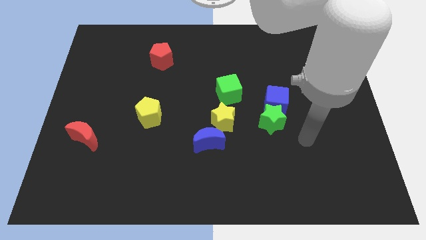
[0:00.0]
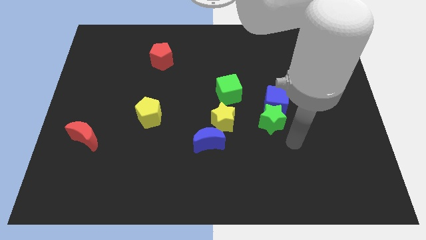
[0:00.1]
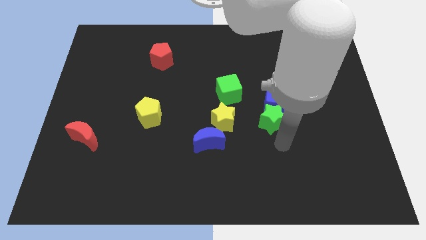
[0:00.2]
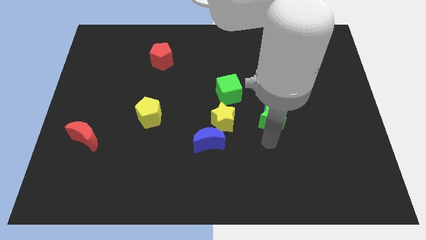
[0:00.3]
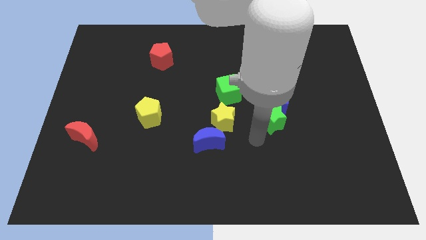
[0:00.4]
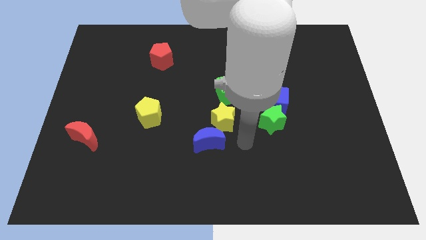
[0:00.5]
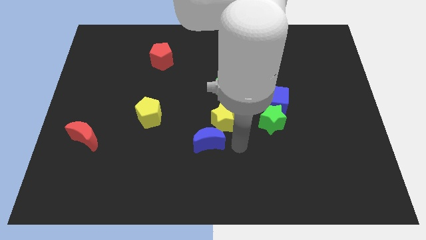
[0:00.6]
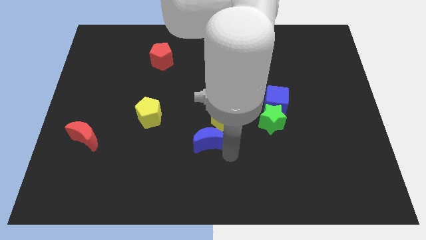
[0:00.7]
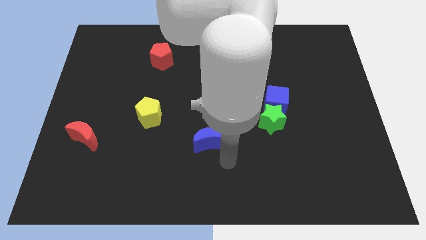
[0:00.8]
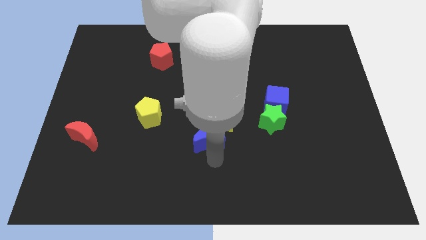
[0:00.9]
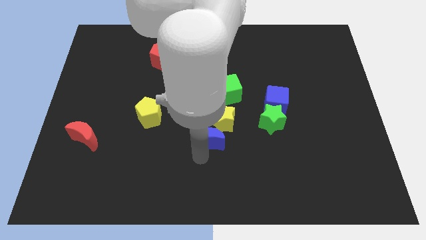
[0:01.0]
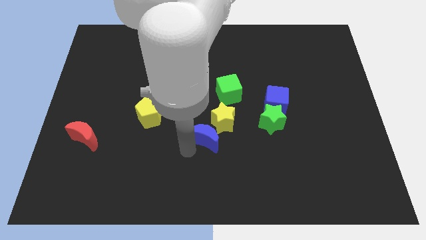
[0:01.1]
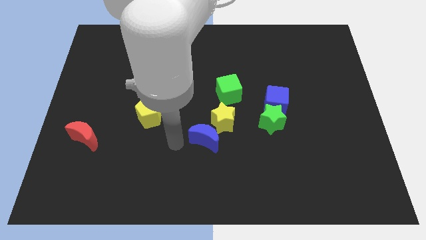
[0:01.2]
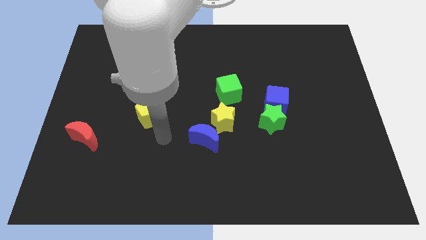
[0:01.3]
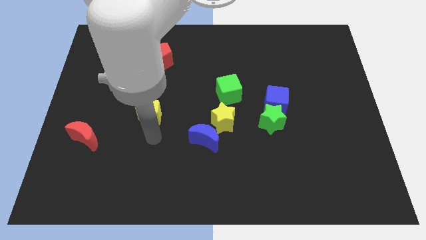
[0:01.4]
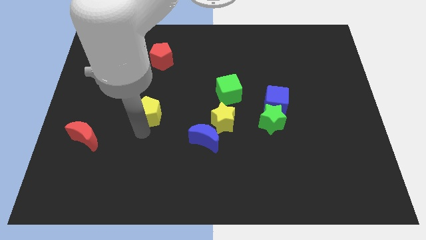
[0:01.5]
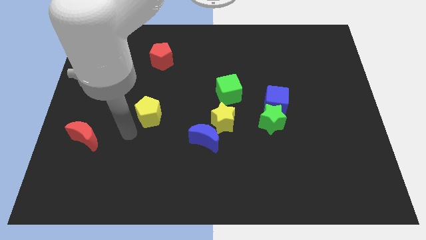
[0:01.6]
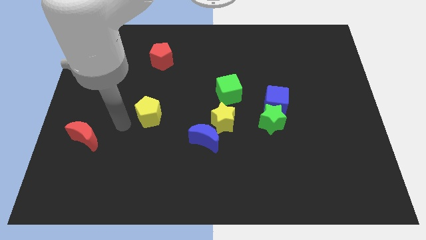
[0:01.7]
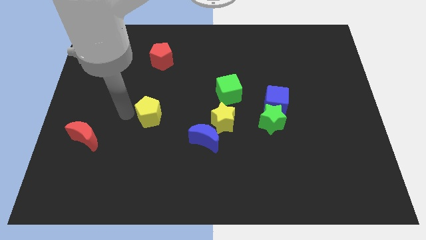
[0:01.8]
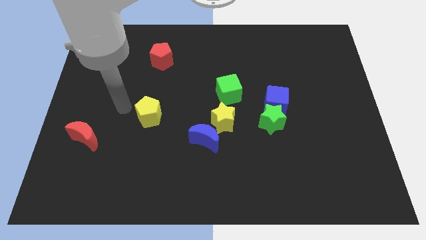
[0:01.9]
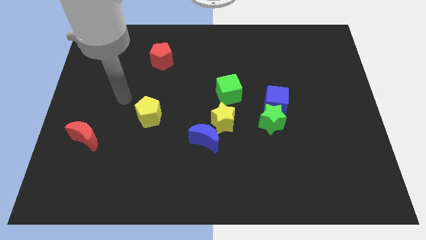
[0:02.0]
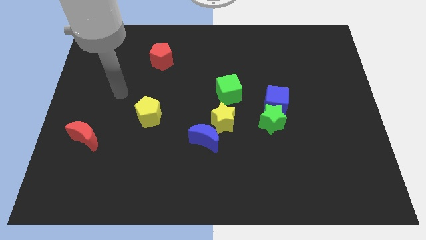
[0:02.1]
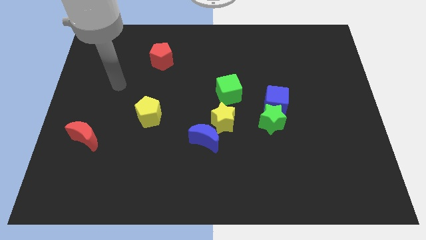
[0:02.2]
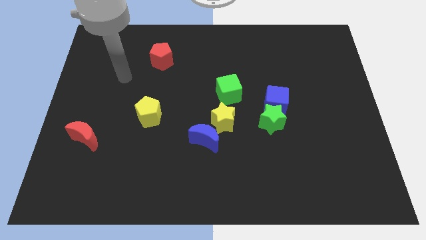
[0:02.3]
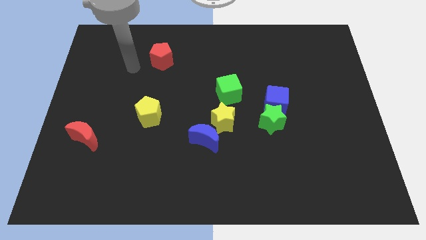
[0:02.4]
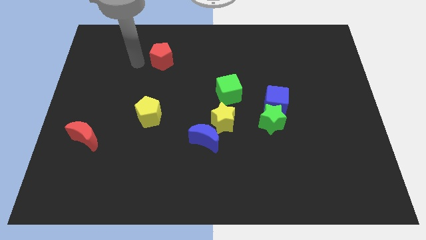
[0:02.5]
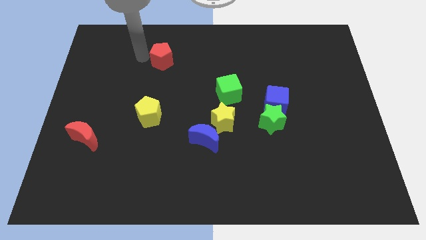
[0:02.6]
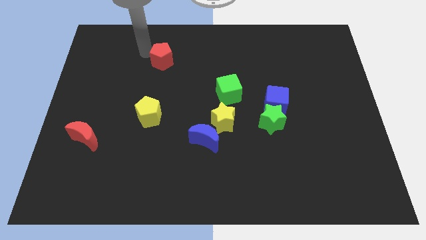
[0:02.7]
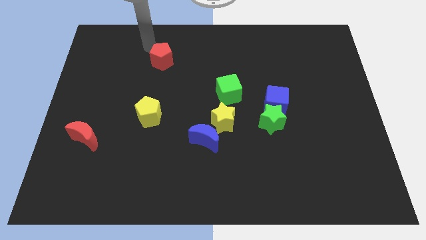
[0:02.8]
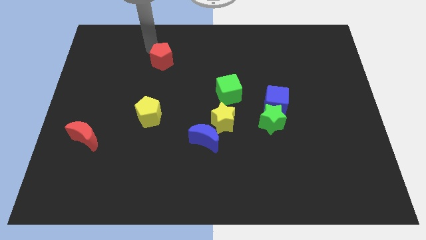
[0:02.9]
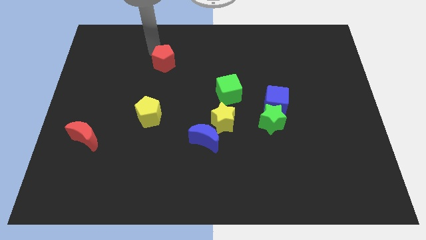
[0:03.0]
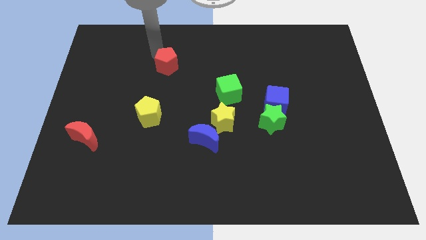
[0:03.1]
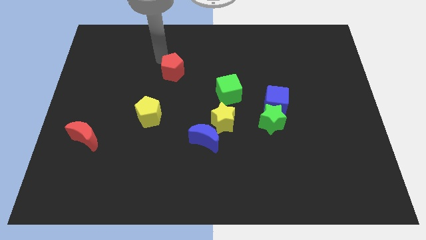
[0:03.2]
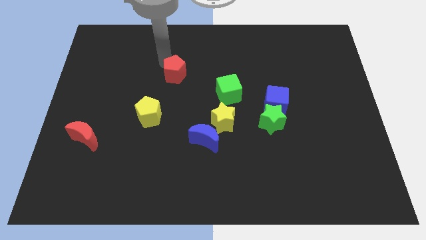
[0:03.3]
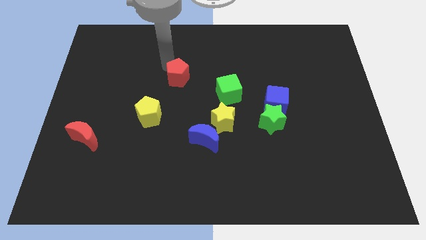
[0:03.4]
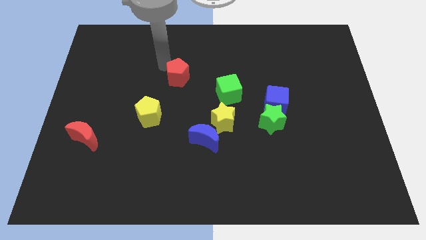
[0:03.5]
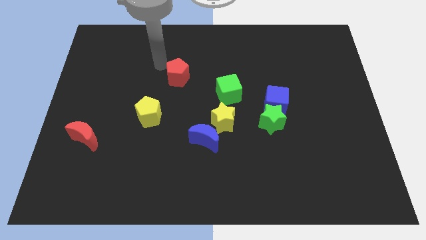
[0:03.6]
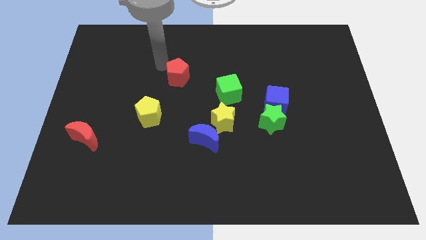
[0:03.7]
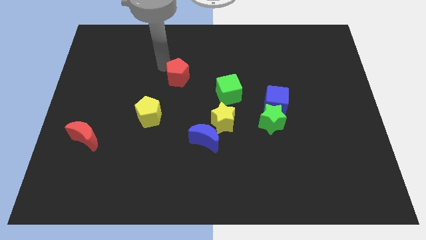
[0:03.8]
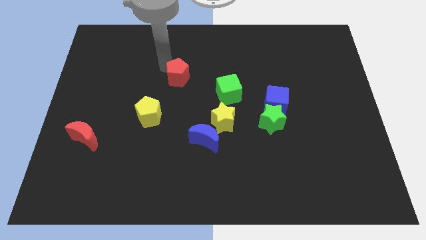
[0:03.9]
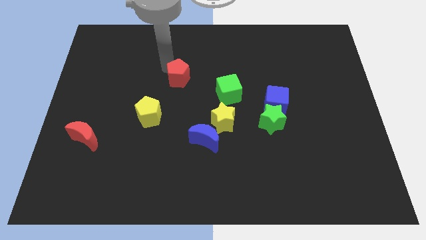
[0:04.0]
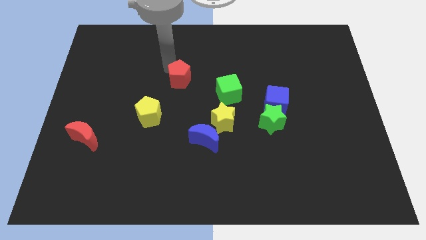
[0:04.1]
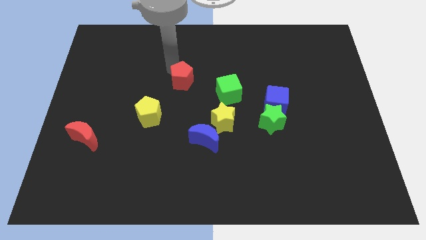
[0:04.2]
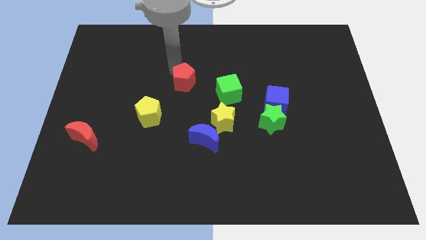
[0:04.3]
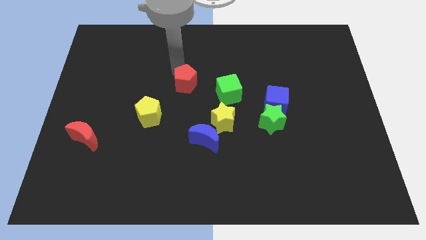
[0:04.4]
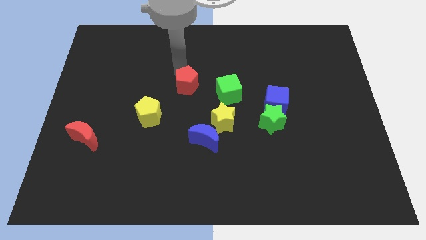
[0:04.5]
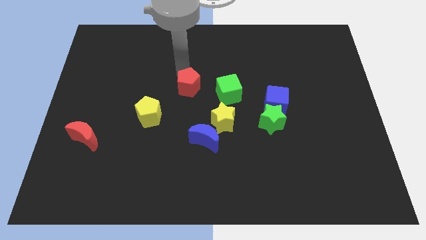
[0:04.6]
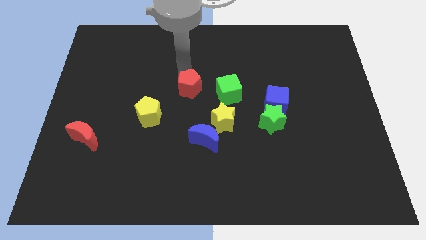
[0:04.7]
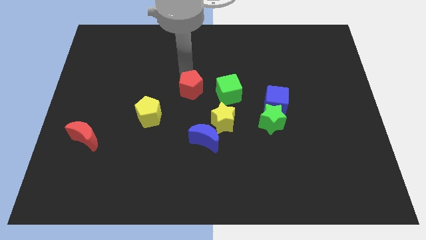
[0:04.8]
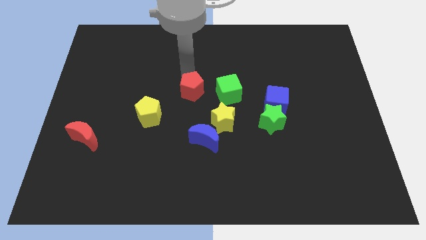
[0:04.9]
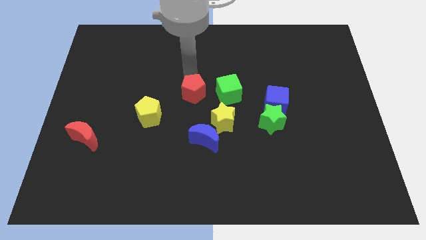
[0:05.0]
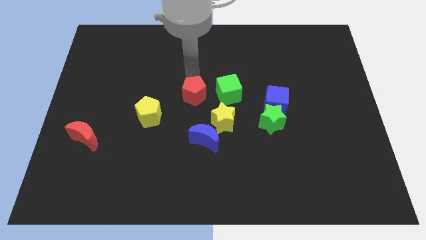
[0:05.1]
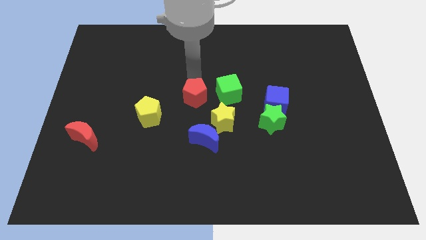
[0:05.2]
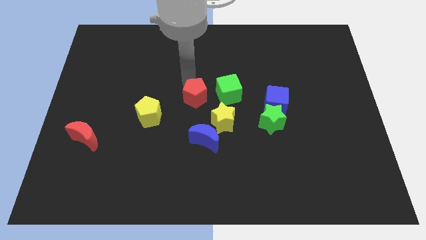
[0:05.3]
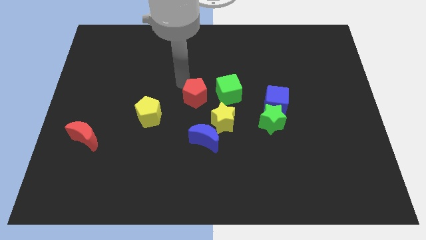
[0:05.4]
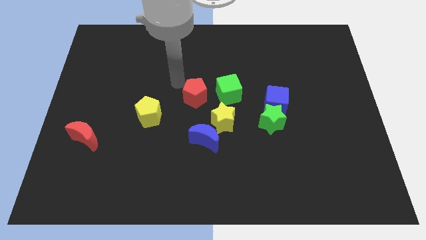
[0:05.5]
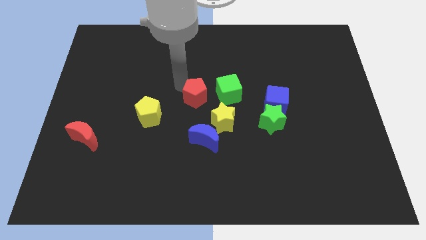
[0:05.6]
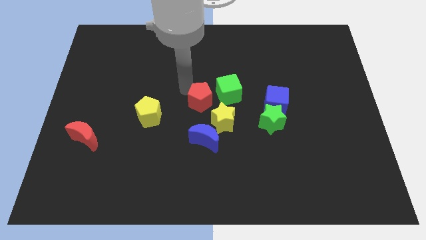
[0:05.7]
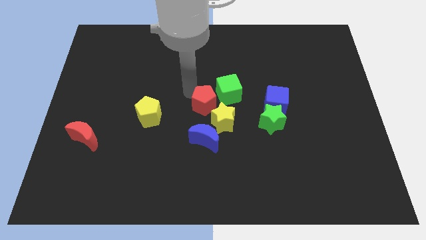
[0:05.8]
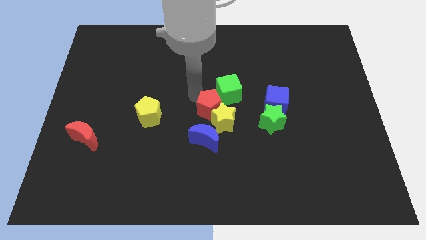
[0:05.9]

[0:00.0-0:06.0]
move the red pentagon to the yellow star

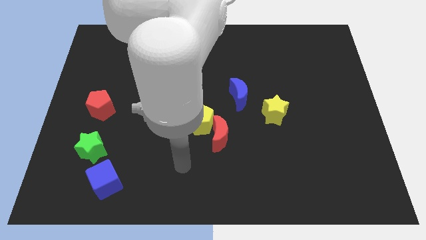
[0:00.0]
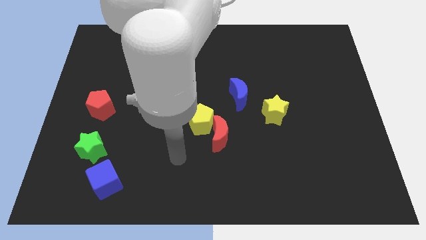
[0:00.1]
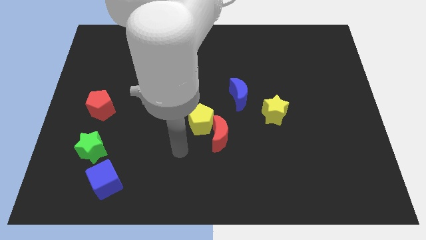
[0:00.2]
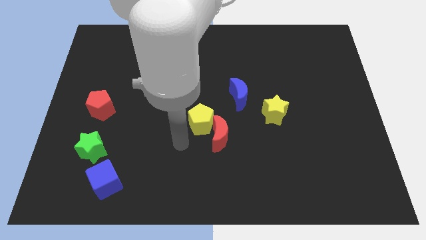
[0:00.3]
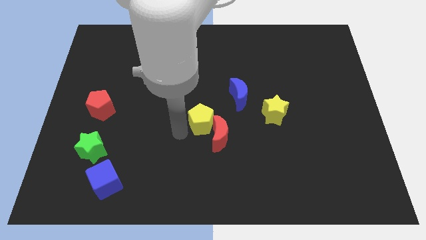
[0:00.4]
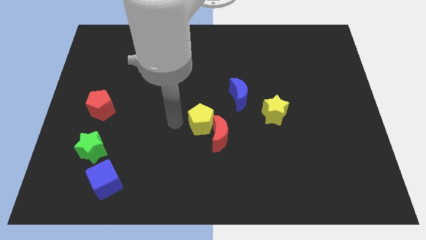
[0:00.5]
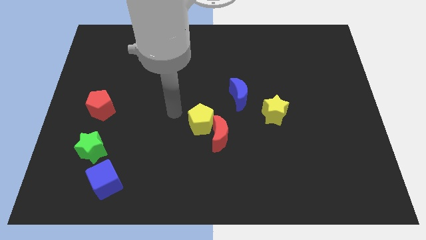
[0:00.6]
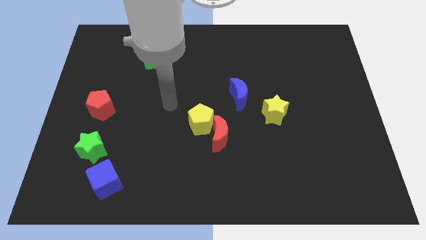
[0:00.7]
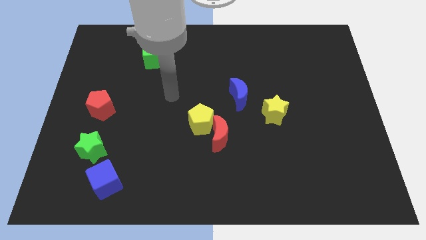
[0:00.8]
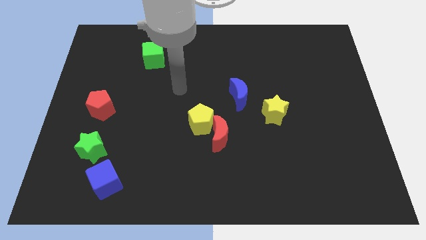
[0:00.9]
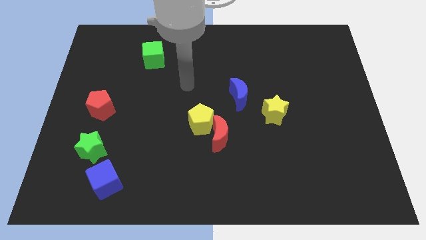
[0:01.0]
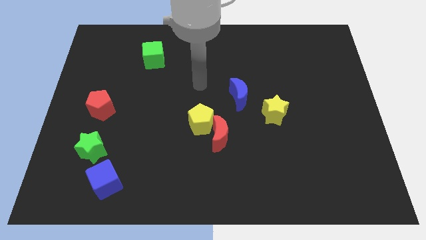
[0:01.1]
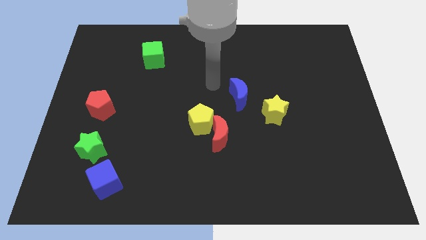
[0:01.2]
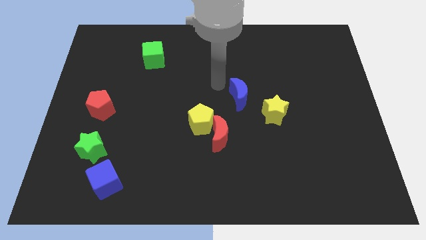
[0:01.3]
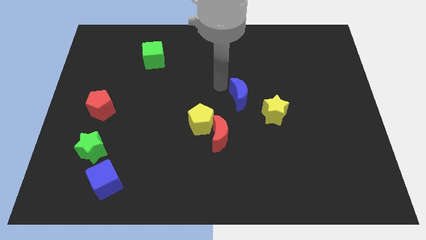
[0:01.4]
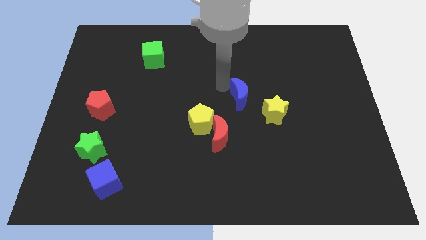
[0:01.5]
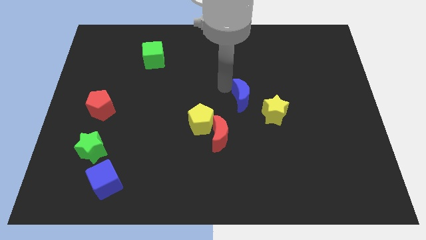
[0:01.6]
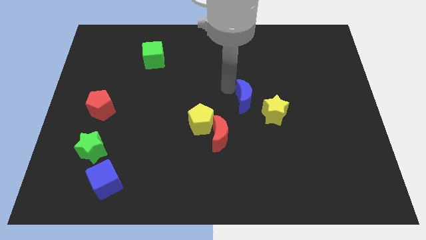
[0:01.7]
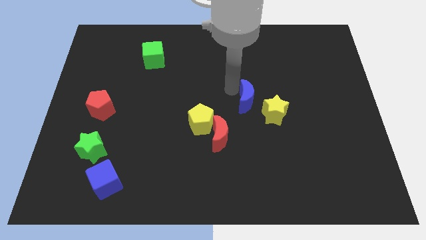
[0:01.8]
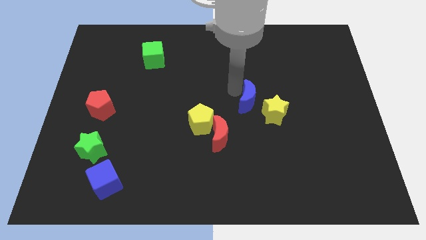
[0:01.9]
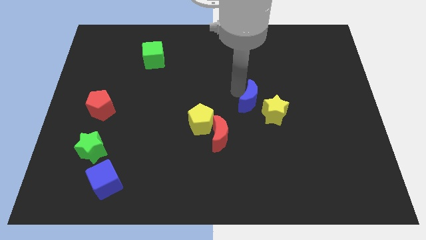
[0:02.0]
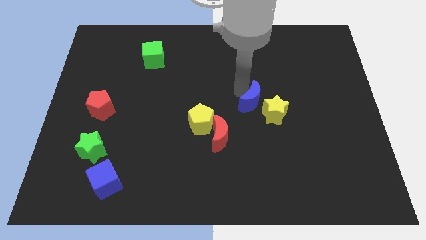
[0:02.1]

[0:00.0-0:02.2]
slide the blue moon next to the yellow star
